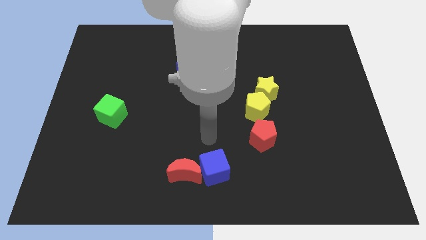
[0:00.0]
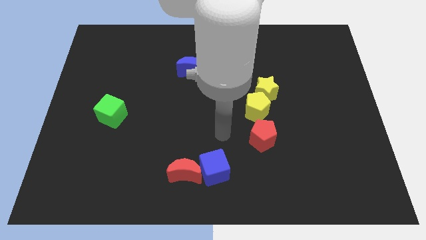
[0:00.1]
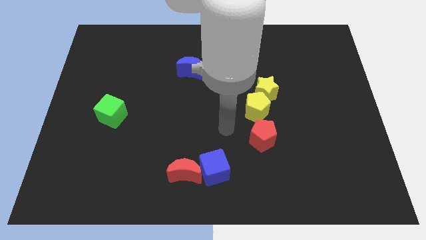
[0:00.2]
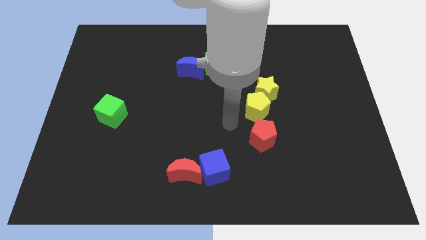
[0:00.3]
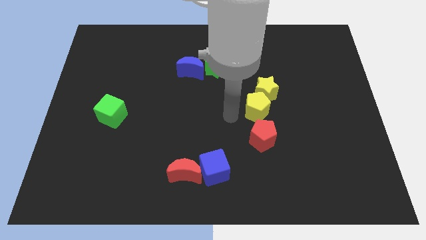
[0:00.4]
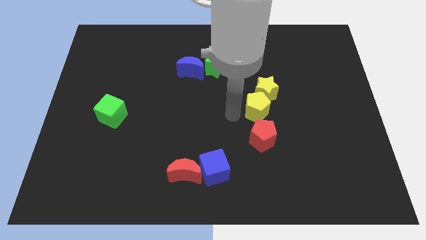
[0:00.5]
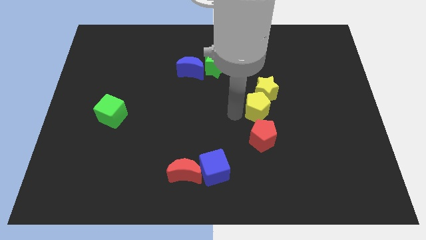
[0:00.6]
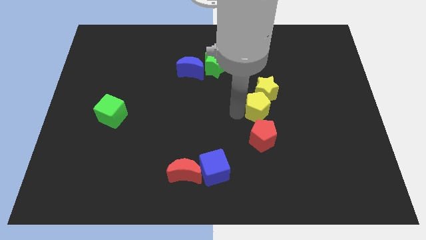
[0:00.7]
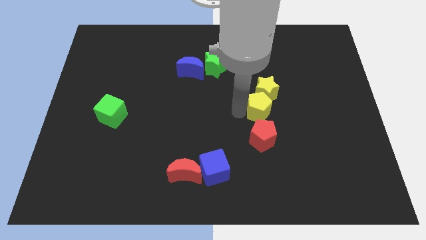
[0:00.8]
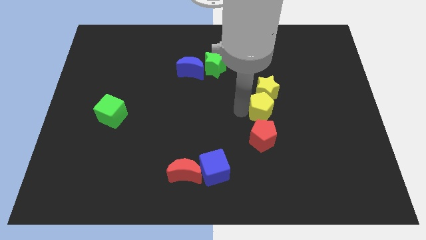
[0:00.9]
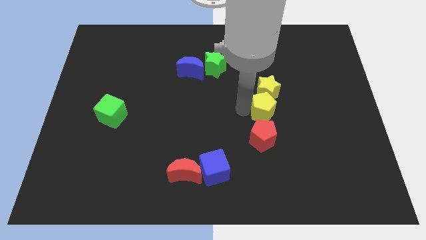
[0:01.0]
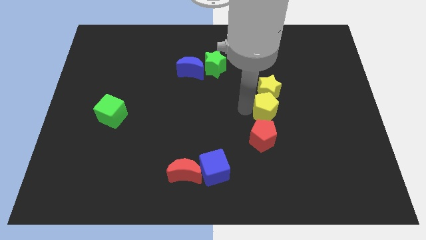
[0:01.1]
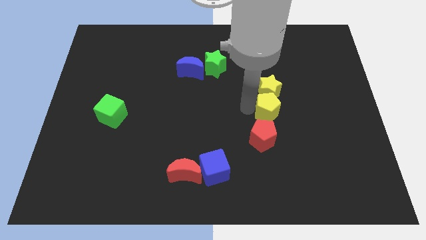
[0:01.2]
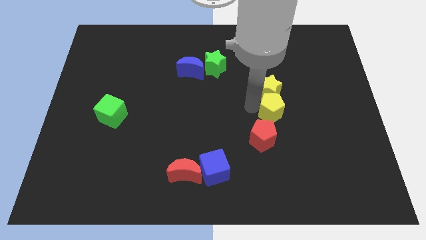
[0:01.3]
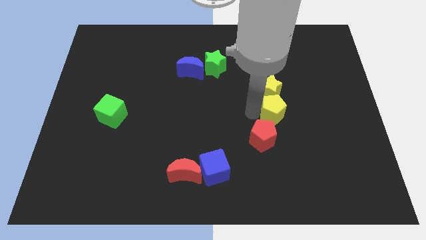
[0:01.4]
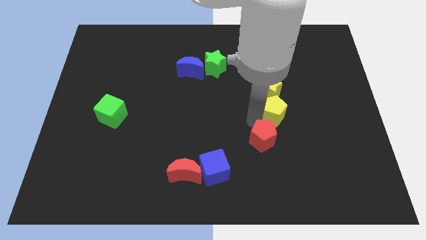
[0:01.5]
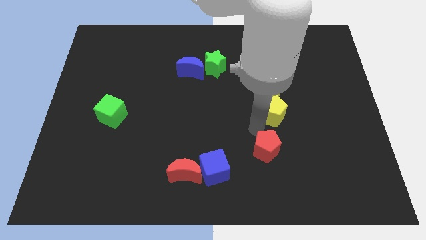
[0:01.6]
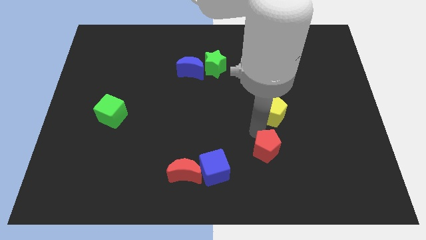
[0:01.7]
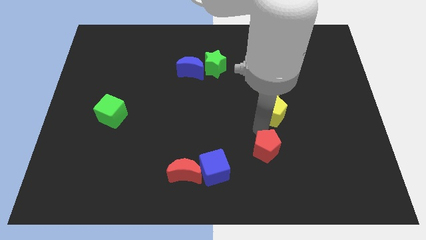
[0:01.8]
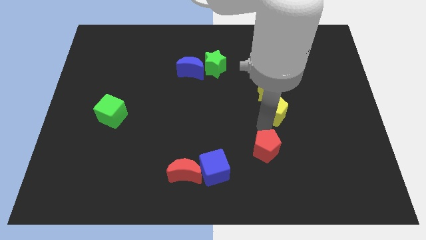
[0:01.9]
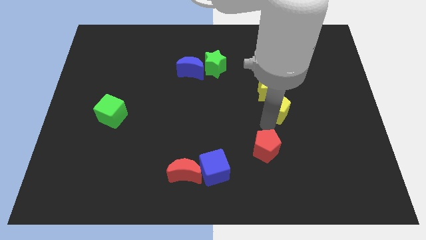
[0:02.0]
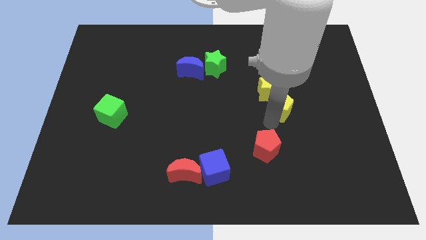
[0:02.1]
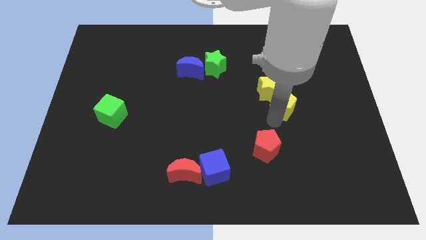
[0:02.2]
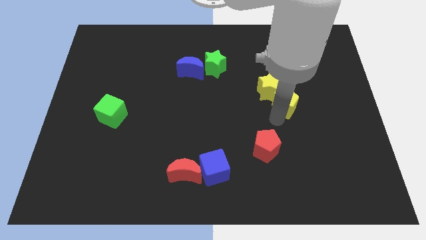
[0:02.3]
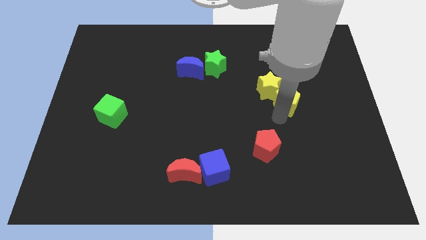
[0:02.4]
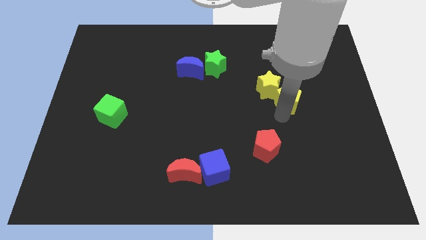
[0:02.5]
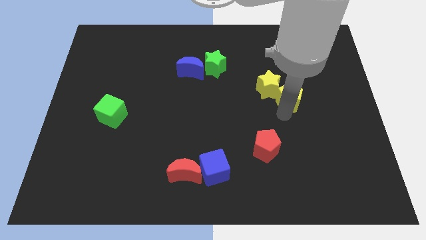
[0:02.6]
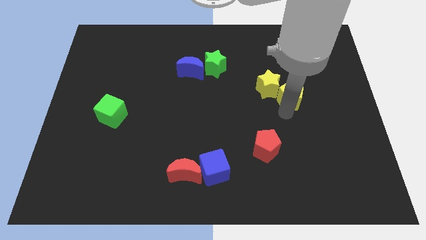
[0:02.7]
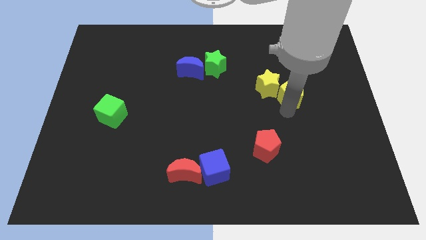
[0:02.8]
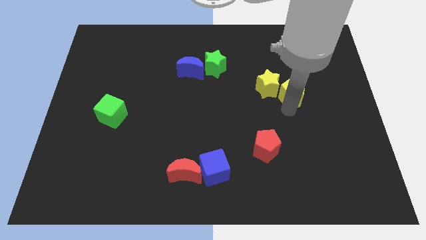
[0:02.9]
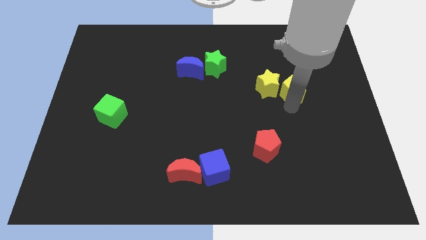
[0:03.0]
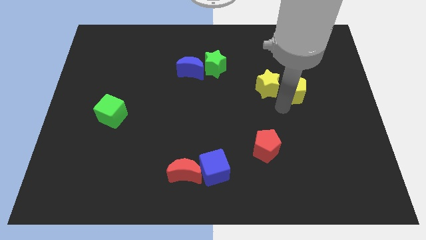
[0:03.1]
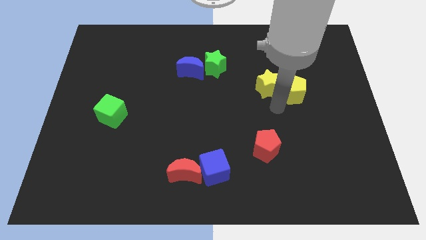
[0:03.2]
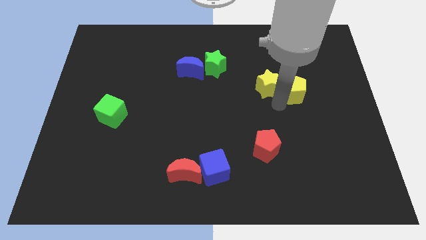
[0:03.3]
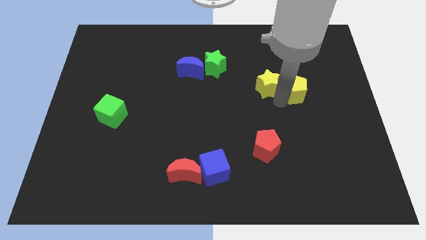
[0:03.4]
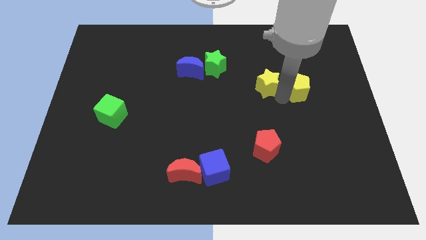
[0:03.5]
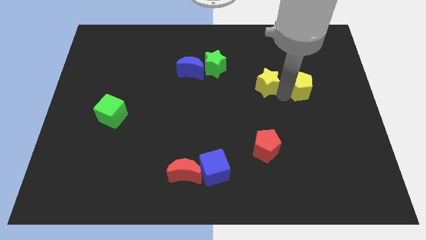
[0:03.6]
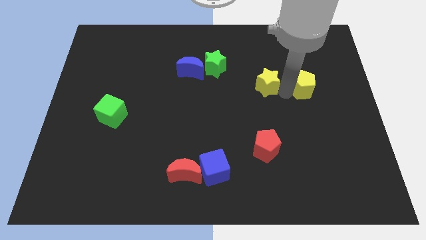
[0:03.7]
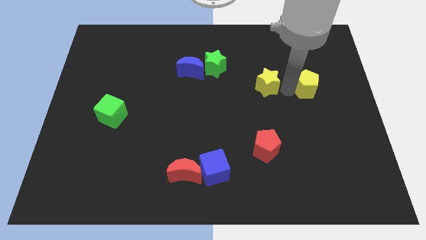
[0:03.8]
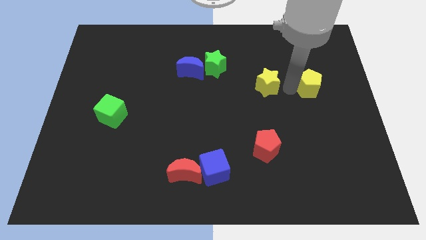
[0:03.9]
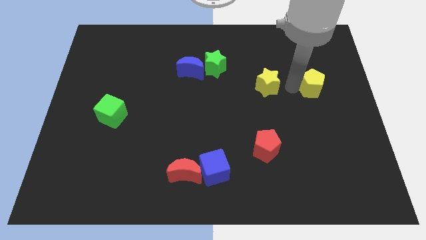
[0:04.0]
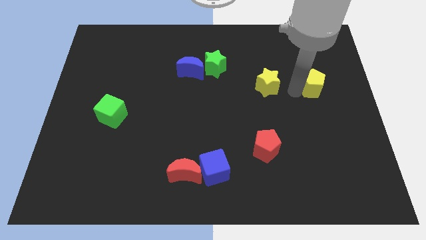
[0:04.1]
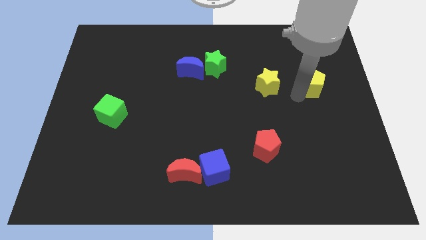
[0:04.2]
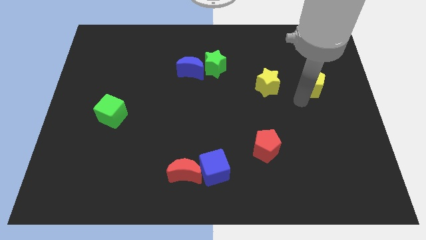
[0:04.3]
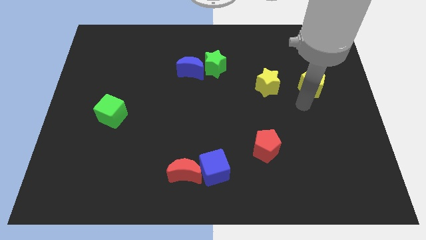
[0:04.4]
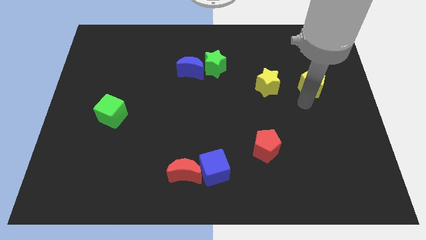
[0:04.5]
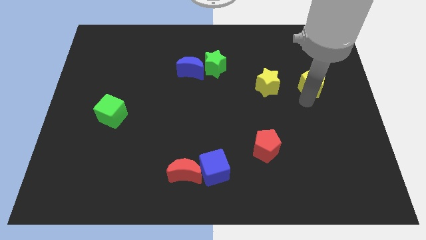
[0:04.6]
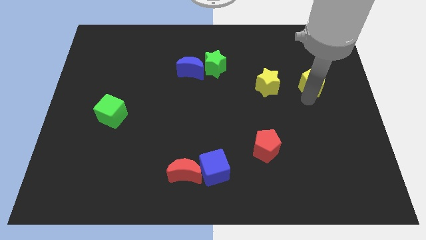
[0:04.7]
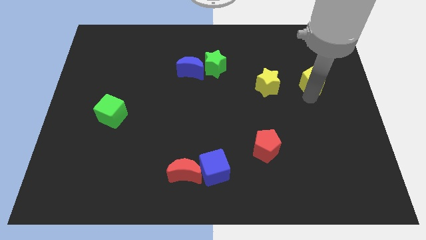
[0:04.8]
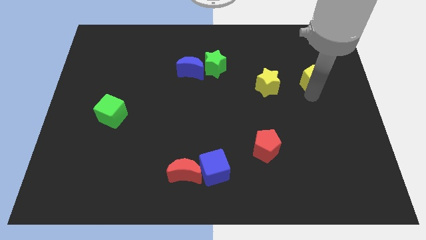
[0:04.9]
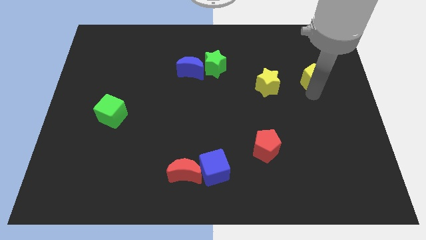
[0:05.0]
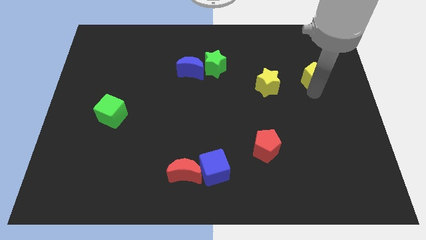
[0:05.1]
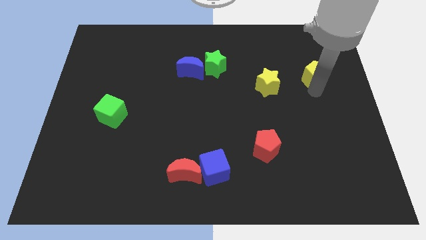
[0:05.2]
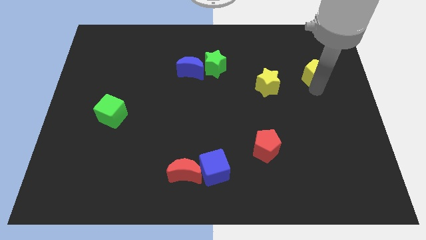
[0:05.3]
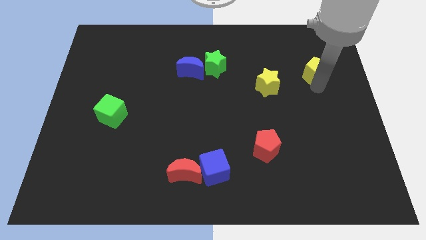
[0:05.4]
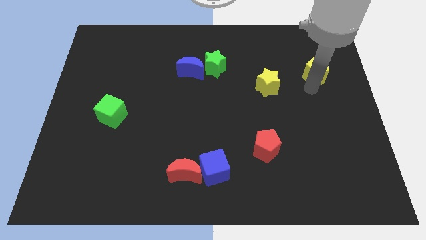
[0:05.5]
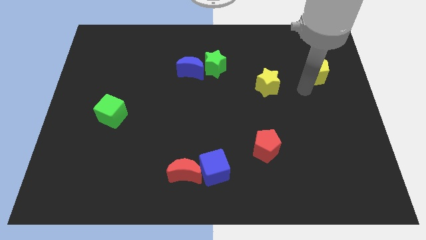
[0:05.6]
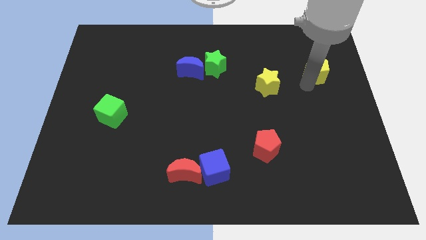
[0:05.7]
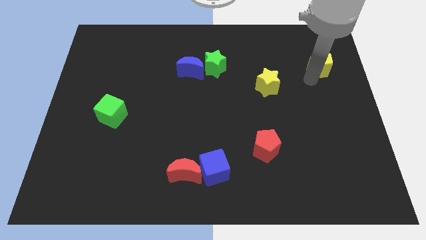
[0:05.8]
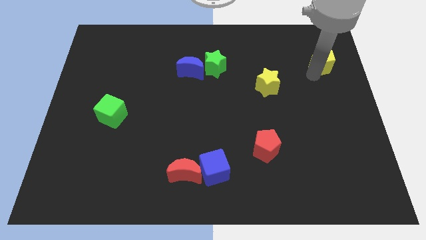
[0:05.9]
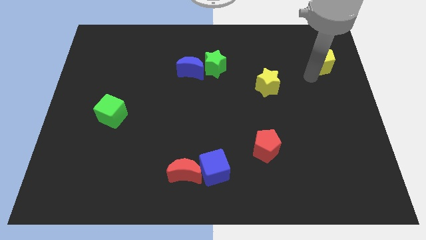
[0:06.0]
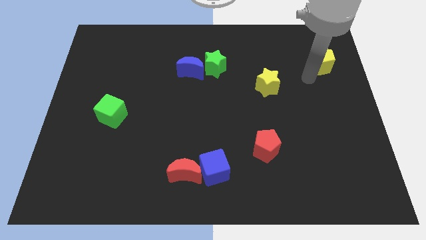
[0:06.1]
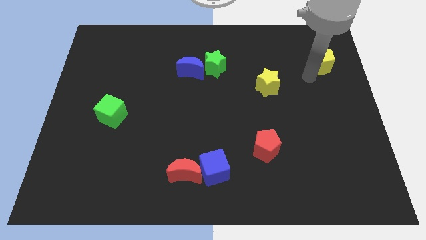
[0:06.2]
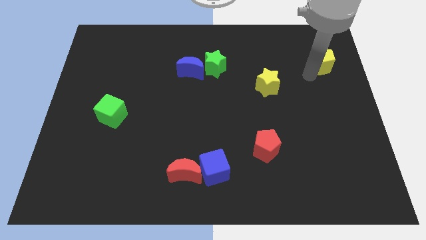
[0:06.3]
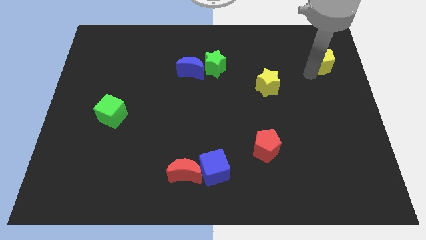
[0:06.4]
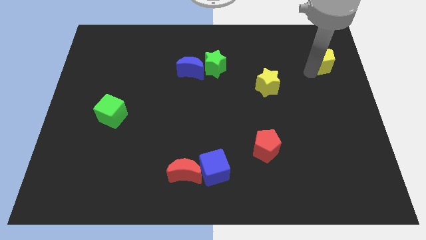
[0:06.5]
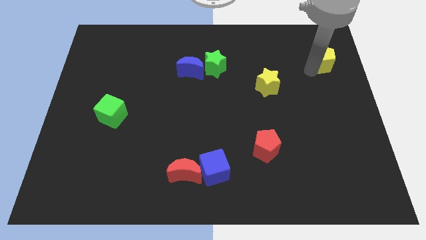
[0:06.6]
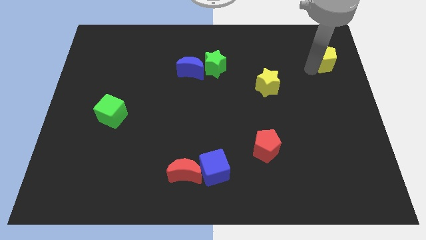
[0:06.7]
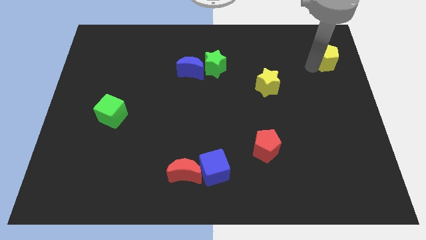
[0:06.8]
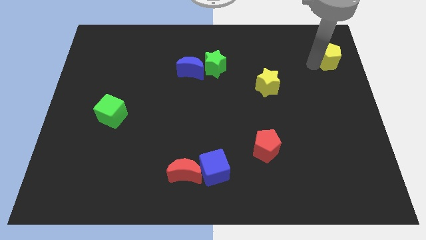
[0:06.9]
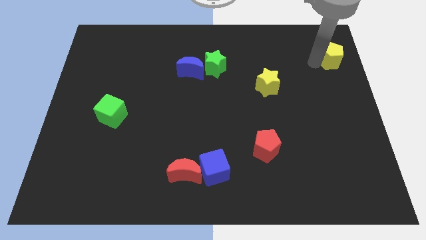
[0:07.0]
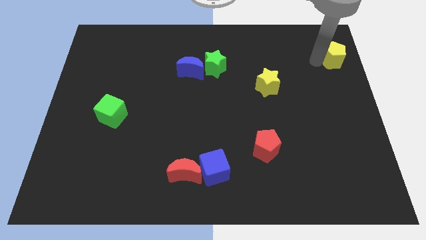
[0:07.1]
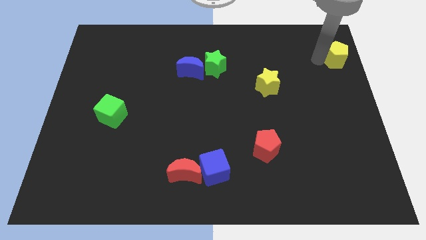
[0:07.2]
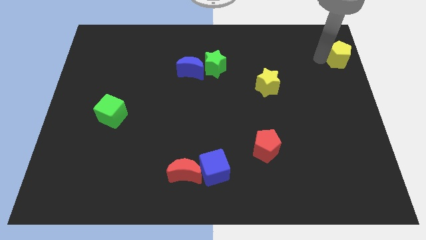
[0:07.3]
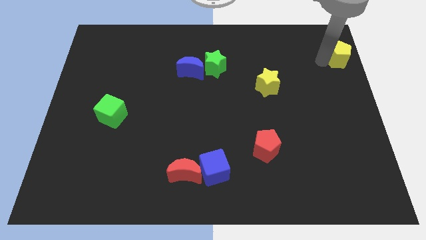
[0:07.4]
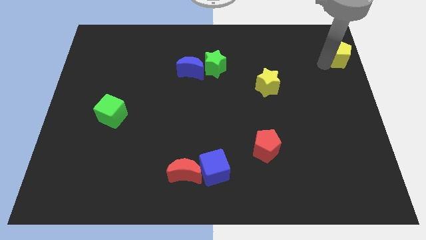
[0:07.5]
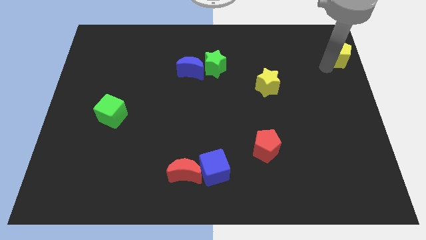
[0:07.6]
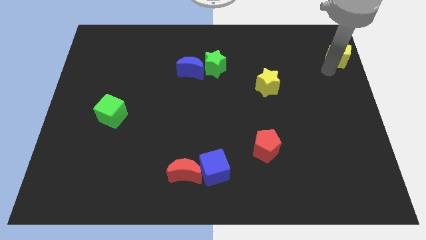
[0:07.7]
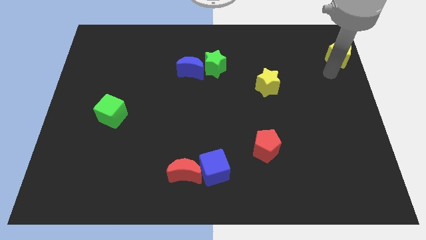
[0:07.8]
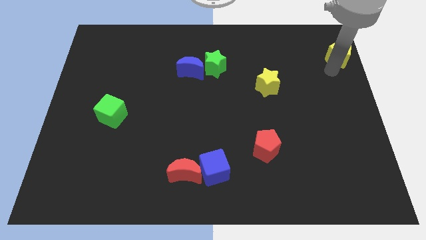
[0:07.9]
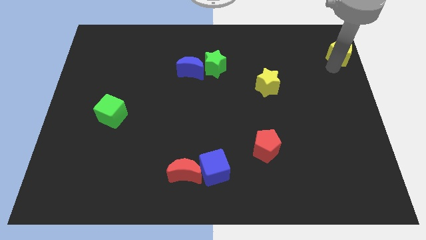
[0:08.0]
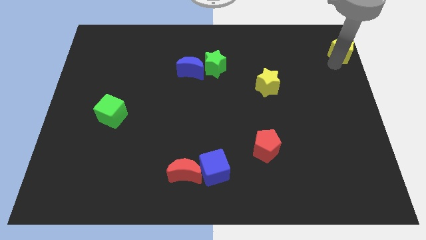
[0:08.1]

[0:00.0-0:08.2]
put the yellow pentagon to the top right of the board
